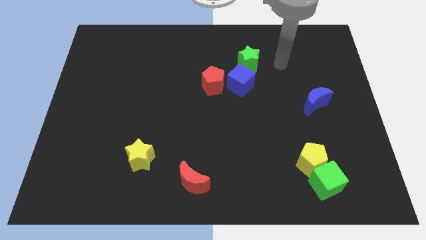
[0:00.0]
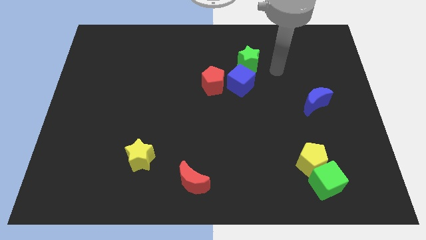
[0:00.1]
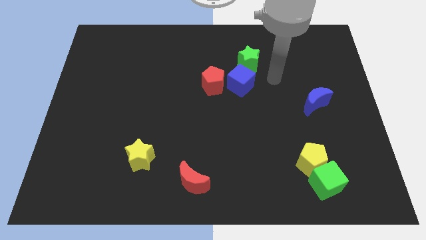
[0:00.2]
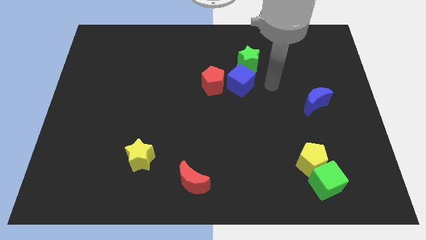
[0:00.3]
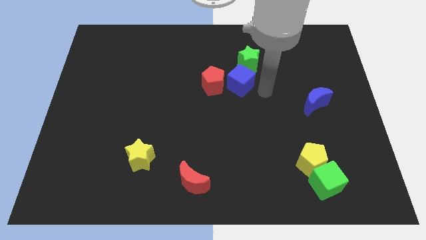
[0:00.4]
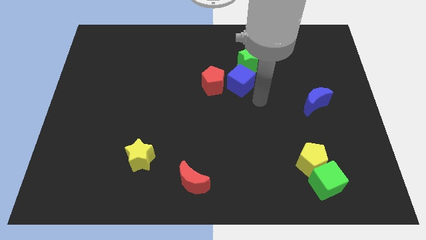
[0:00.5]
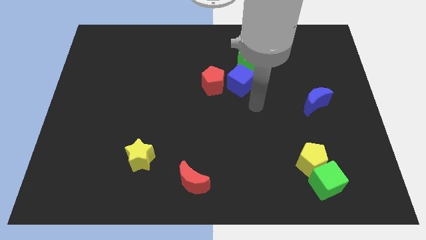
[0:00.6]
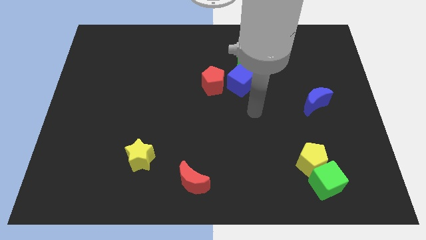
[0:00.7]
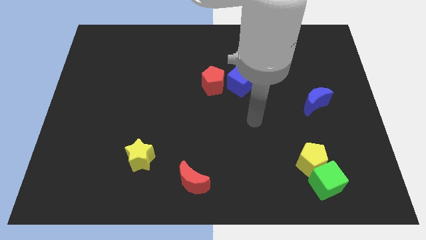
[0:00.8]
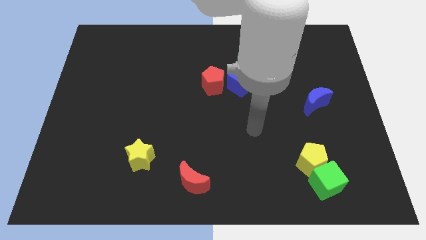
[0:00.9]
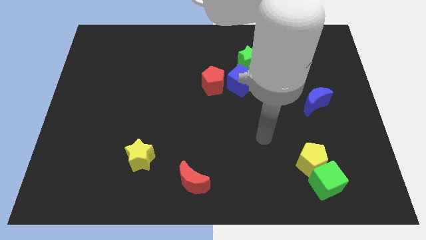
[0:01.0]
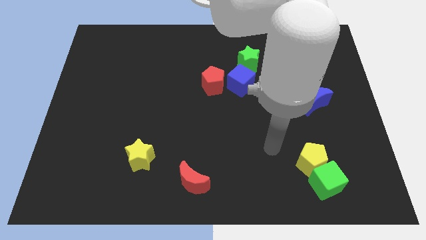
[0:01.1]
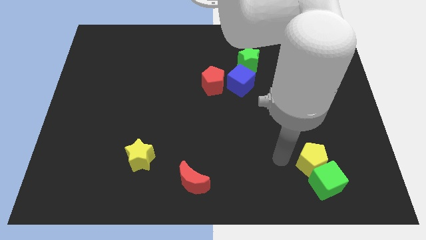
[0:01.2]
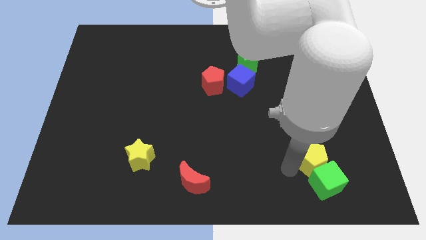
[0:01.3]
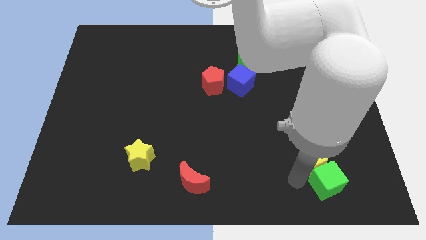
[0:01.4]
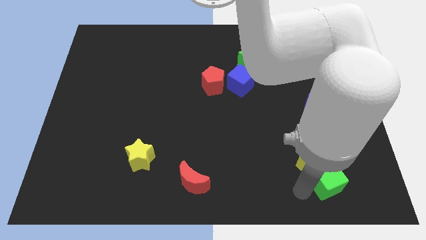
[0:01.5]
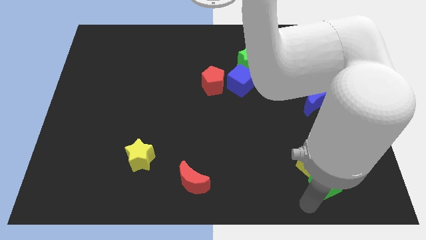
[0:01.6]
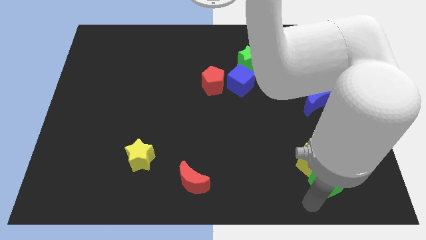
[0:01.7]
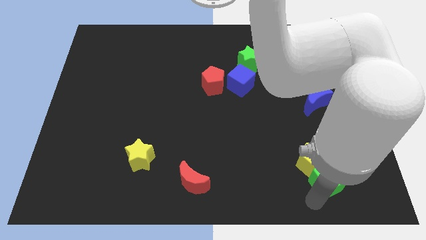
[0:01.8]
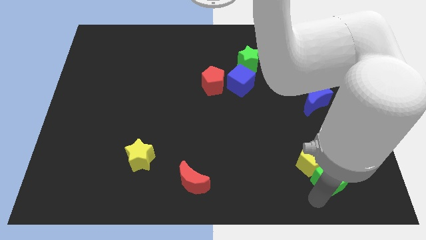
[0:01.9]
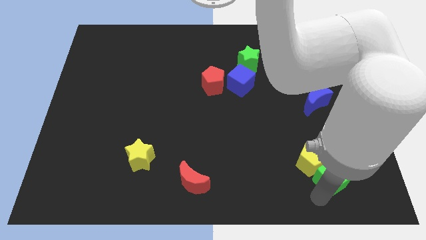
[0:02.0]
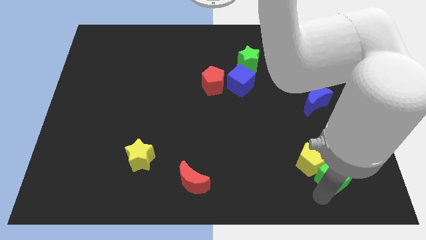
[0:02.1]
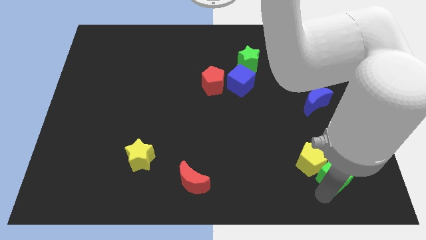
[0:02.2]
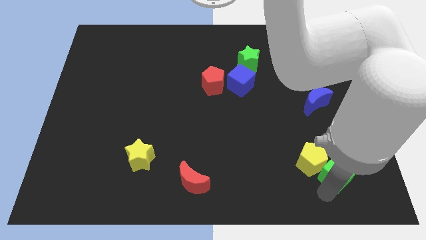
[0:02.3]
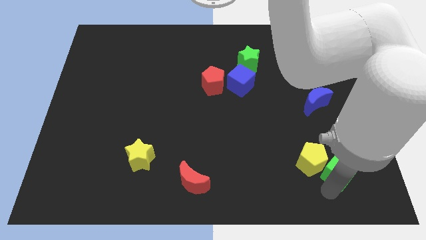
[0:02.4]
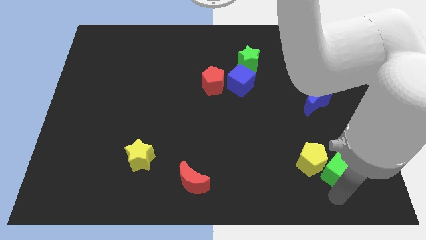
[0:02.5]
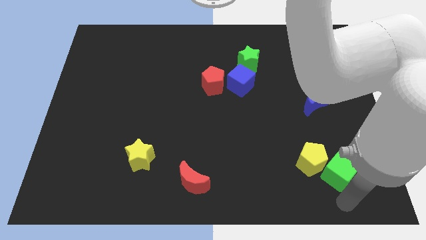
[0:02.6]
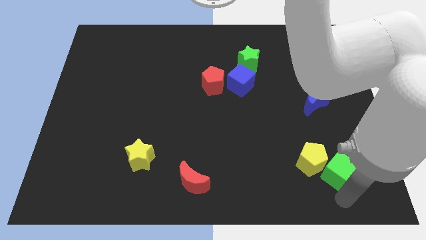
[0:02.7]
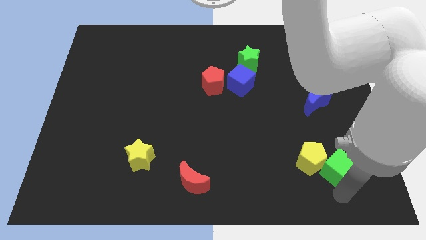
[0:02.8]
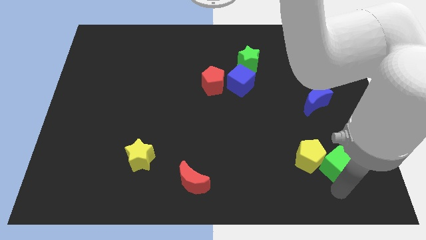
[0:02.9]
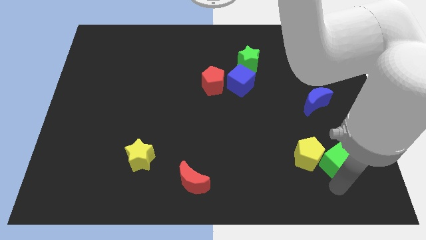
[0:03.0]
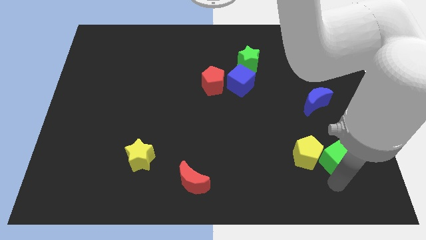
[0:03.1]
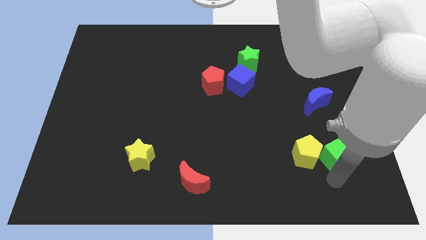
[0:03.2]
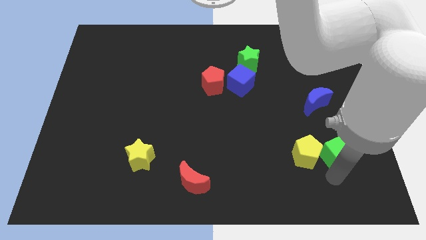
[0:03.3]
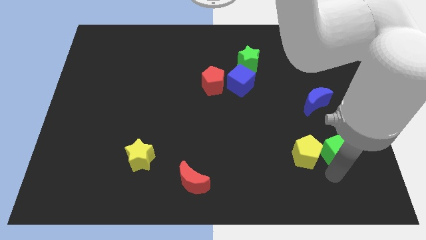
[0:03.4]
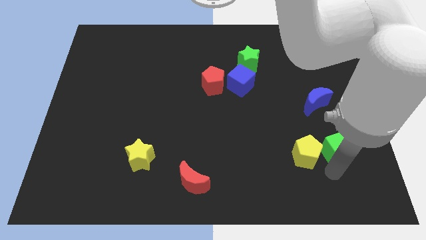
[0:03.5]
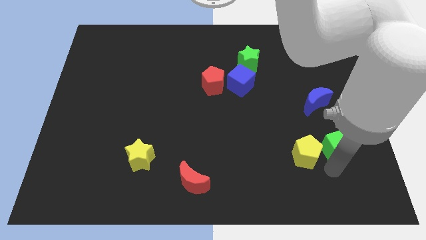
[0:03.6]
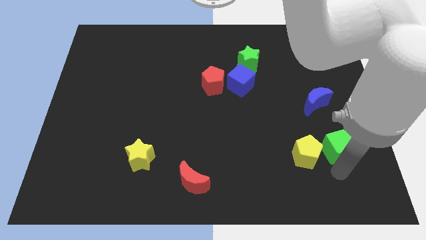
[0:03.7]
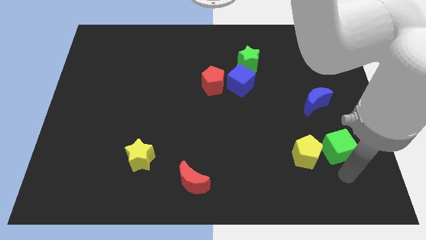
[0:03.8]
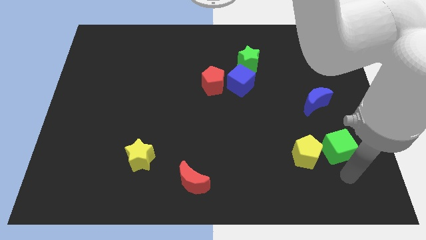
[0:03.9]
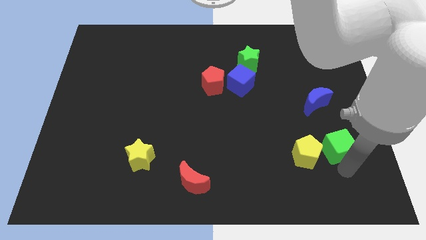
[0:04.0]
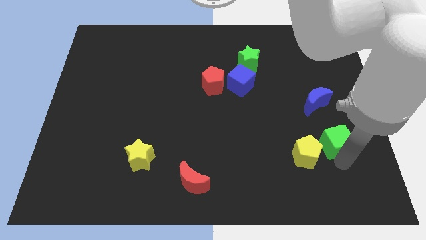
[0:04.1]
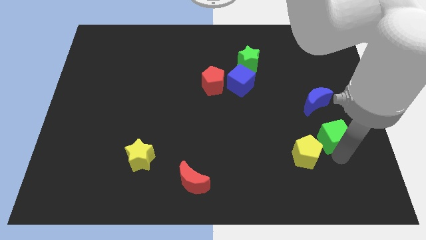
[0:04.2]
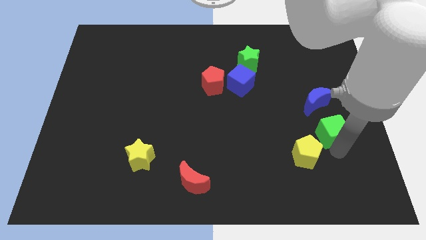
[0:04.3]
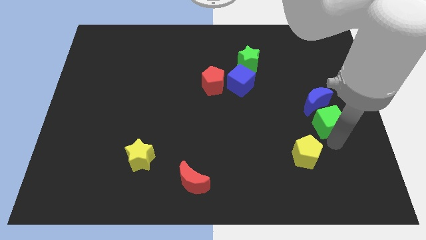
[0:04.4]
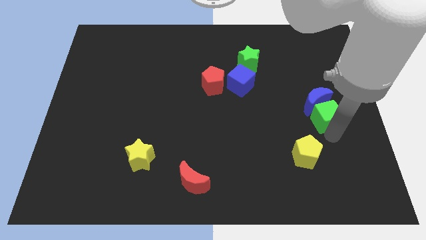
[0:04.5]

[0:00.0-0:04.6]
move the green cube to the blue moon

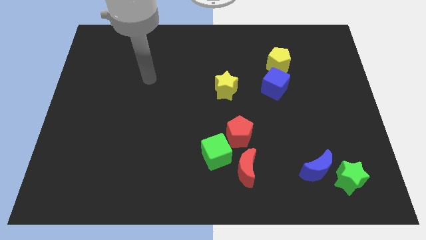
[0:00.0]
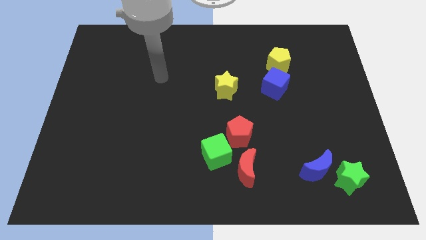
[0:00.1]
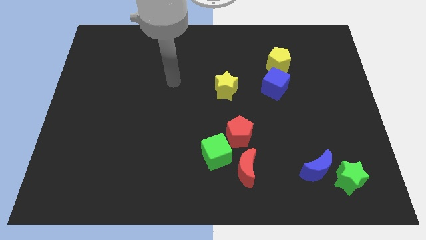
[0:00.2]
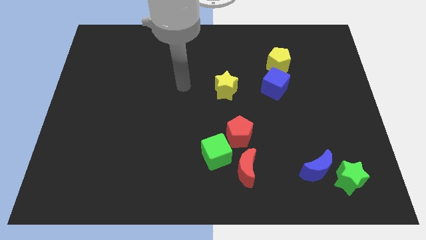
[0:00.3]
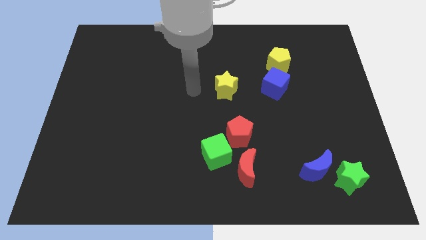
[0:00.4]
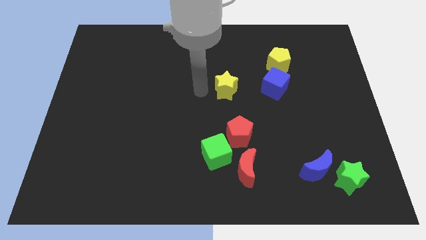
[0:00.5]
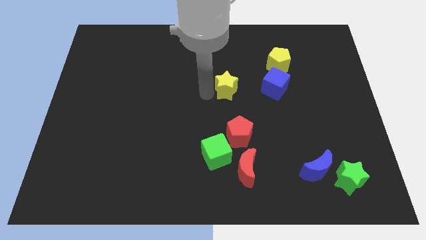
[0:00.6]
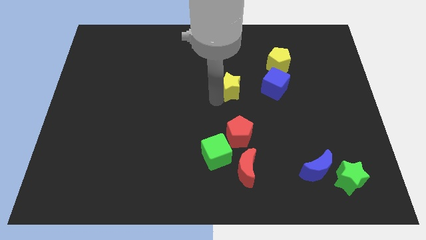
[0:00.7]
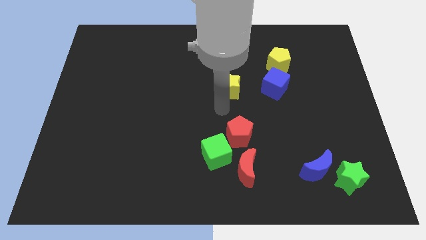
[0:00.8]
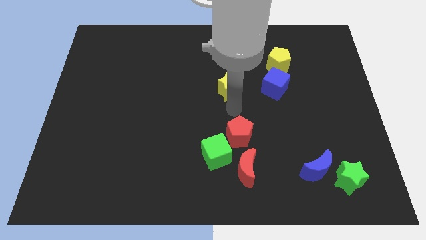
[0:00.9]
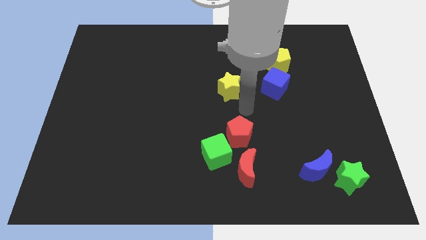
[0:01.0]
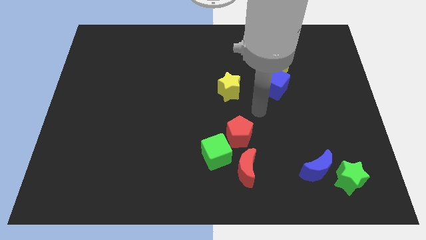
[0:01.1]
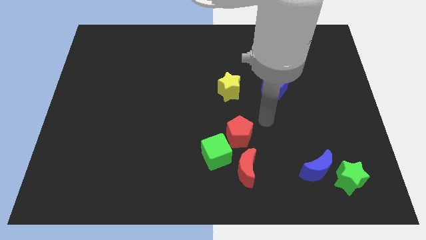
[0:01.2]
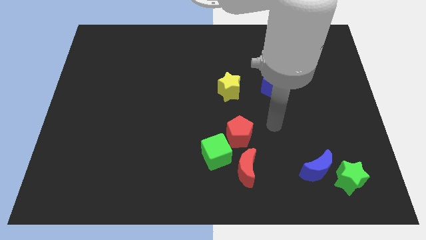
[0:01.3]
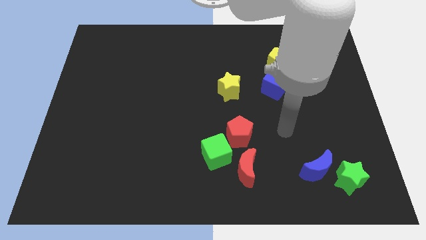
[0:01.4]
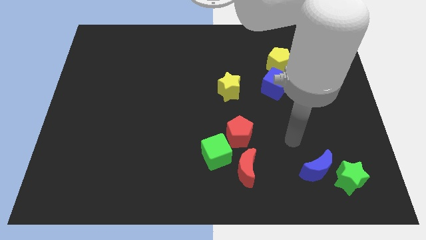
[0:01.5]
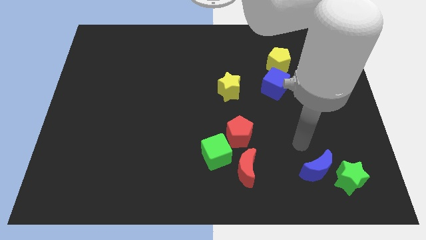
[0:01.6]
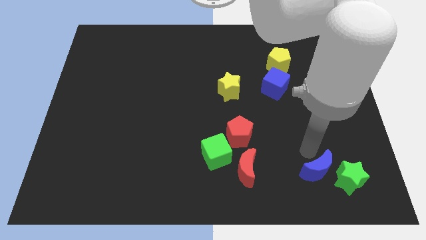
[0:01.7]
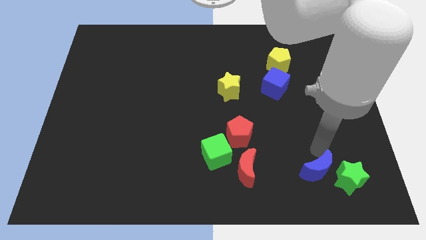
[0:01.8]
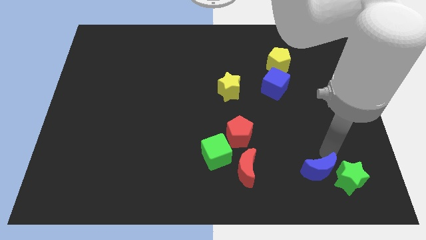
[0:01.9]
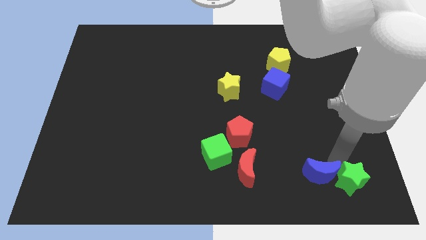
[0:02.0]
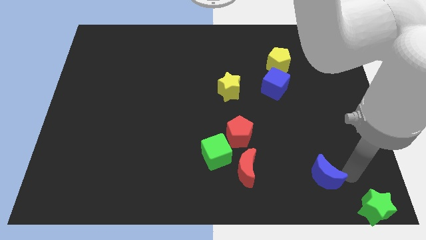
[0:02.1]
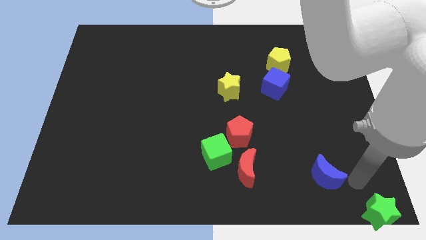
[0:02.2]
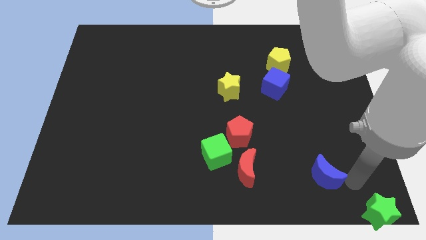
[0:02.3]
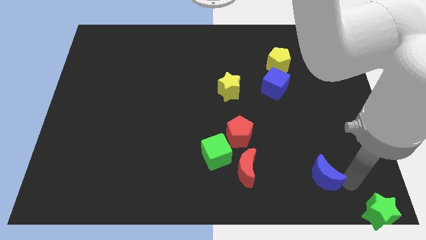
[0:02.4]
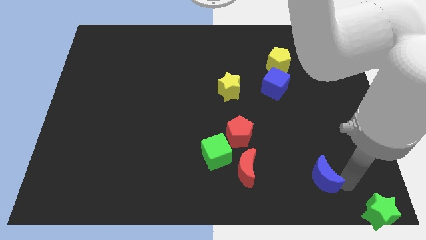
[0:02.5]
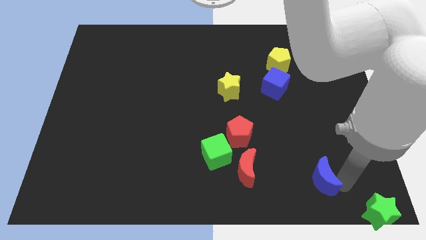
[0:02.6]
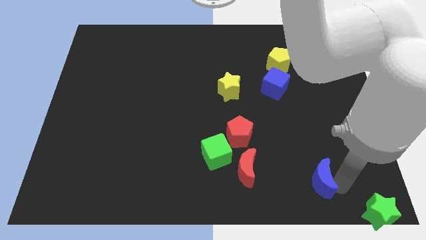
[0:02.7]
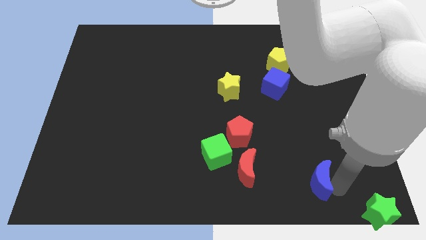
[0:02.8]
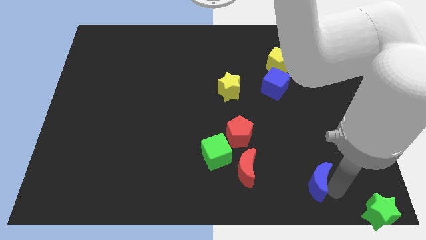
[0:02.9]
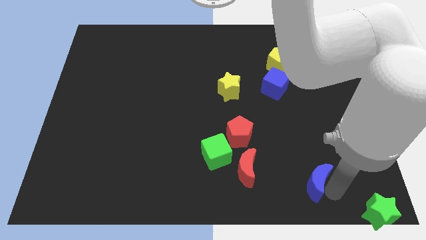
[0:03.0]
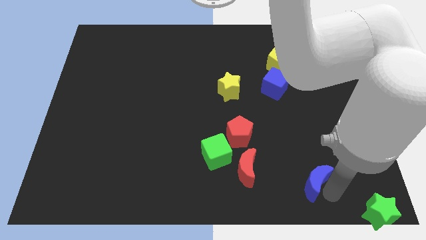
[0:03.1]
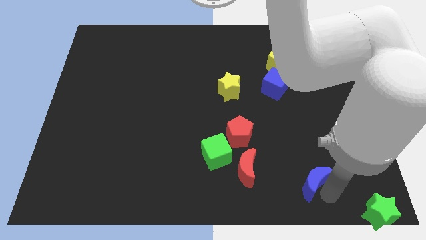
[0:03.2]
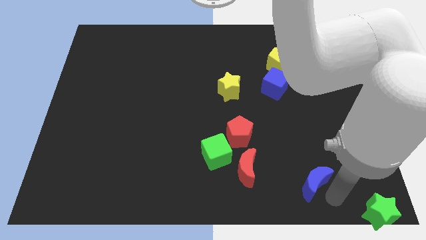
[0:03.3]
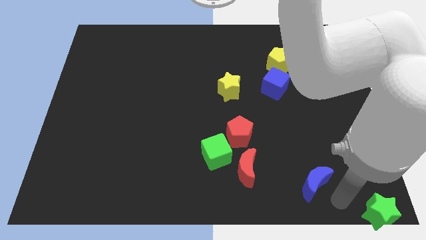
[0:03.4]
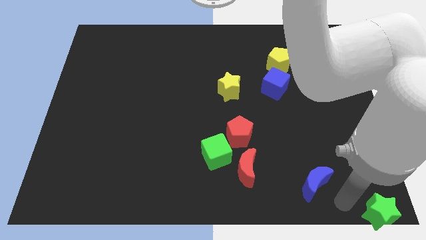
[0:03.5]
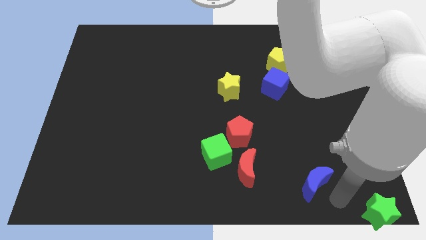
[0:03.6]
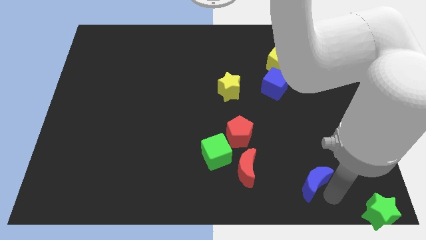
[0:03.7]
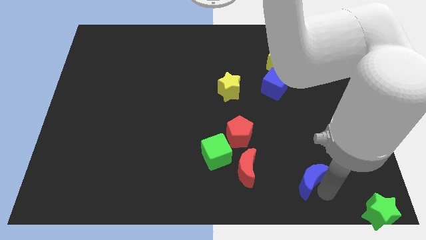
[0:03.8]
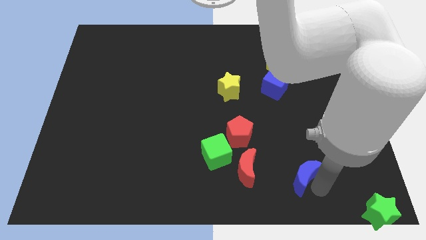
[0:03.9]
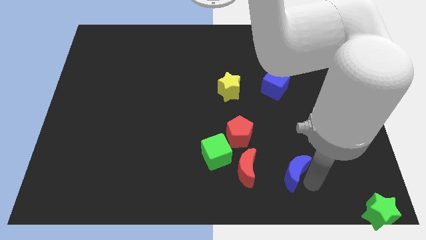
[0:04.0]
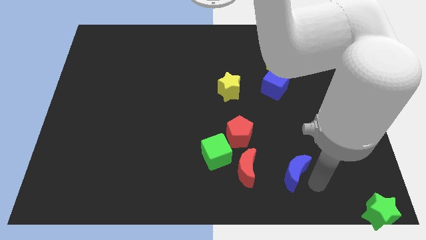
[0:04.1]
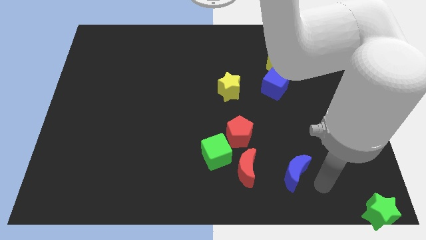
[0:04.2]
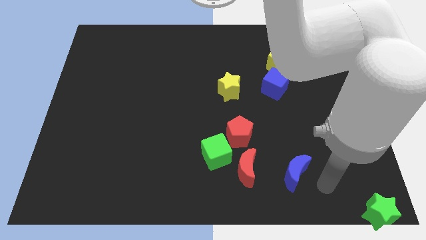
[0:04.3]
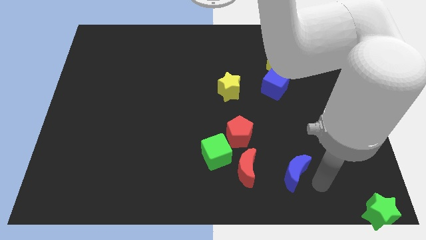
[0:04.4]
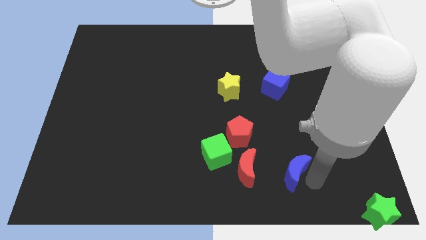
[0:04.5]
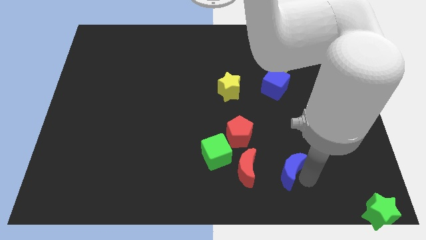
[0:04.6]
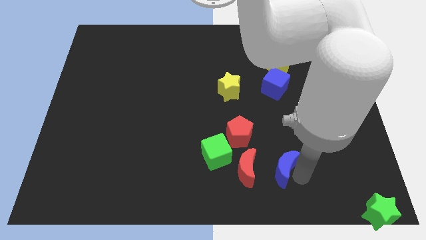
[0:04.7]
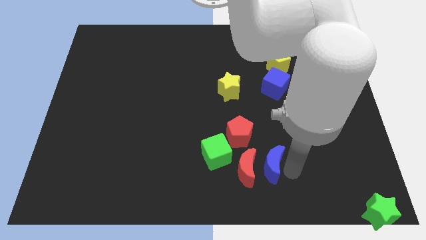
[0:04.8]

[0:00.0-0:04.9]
slide the blue moon to the red moon
